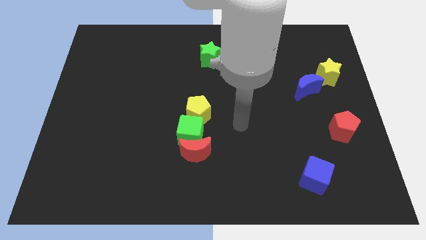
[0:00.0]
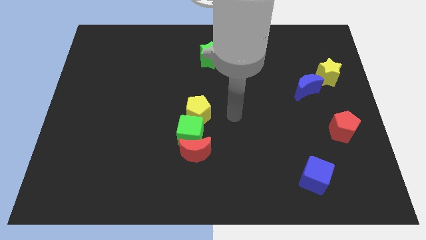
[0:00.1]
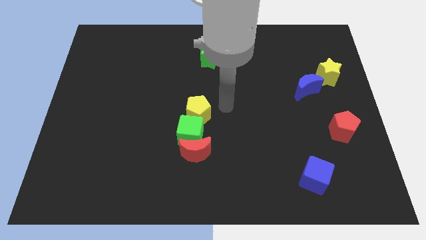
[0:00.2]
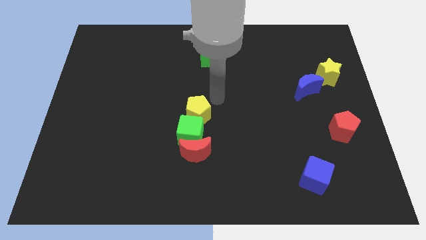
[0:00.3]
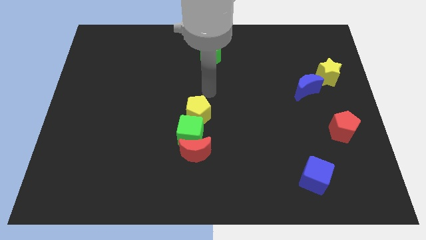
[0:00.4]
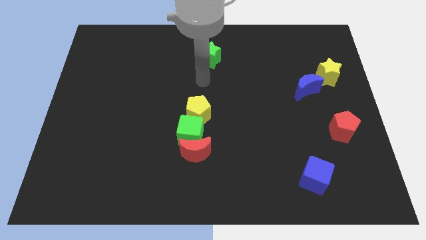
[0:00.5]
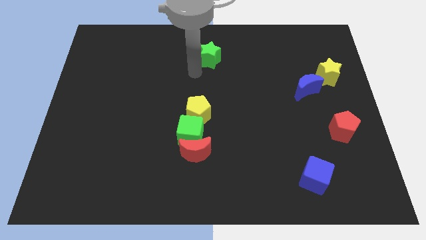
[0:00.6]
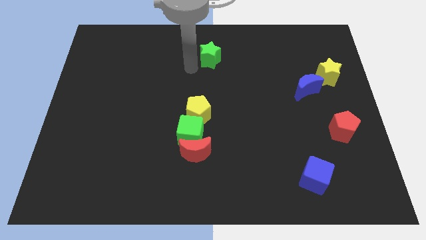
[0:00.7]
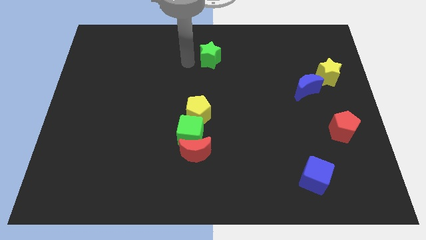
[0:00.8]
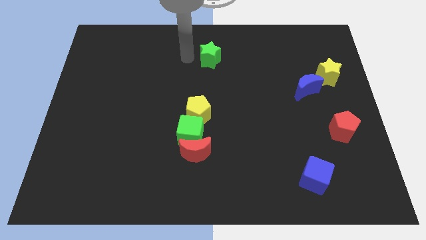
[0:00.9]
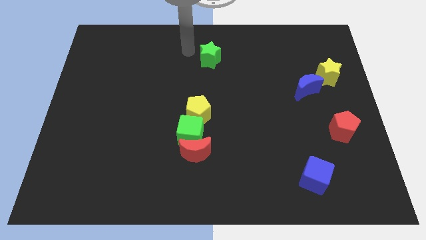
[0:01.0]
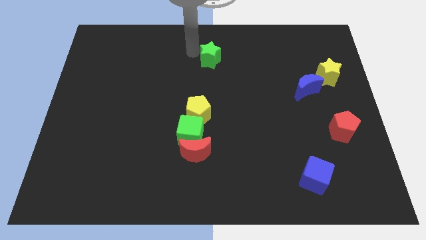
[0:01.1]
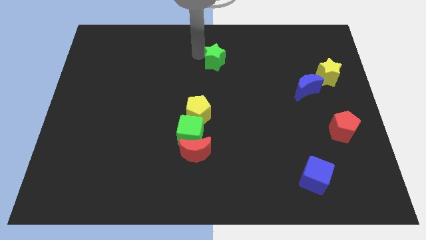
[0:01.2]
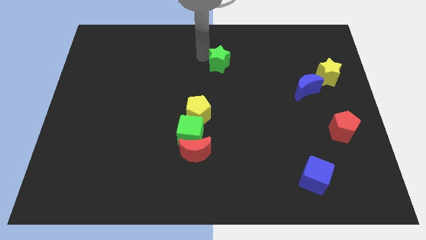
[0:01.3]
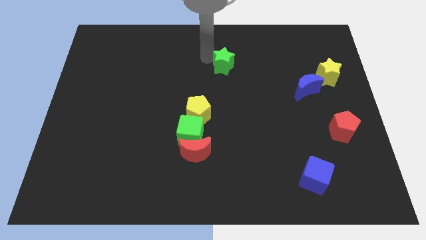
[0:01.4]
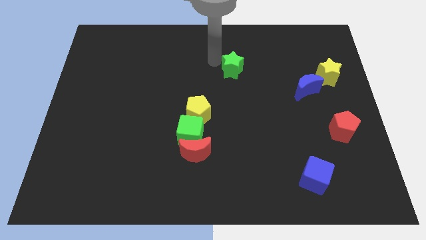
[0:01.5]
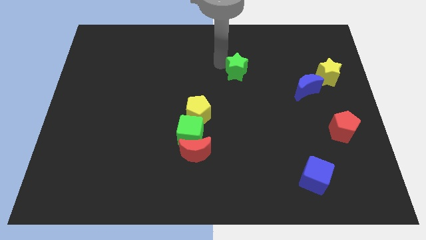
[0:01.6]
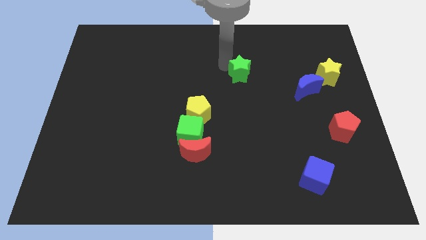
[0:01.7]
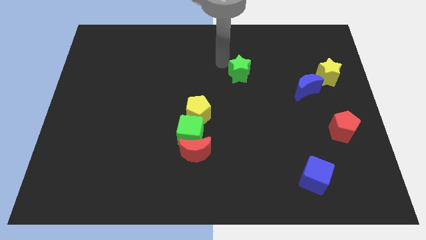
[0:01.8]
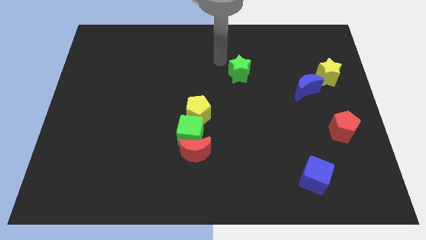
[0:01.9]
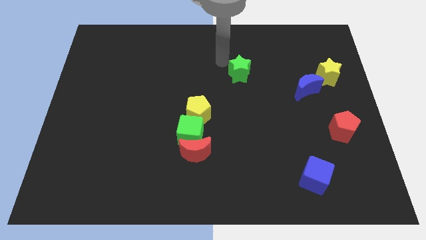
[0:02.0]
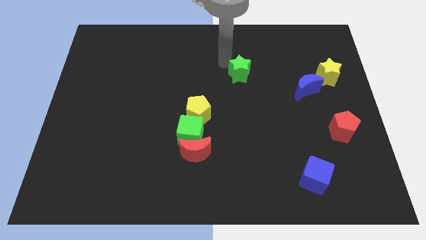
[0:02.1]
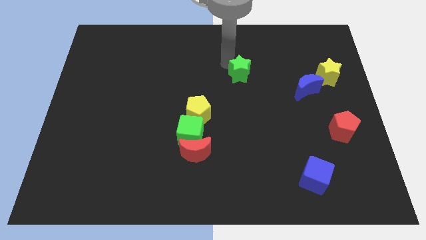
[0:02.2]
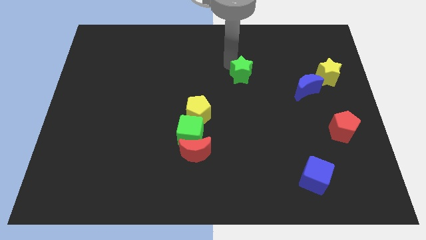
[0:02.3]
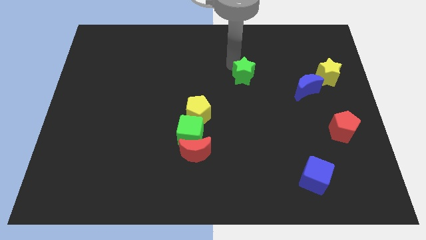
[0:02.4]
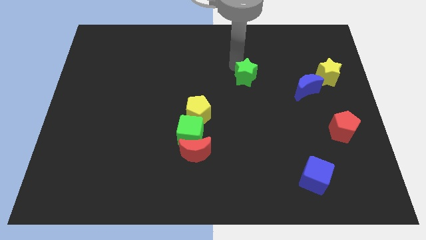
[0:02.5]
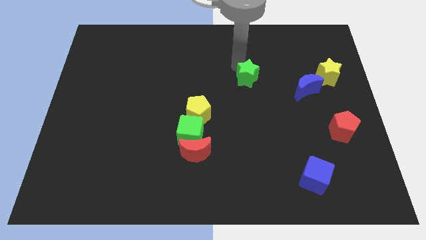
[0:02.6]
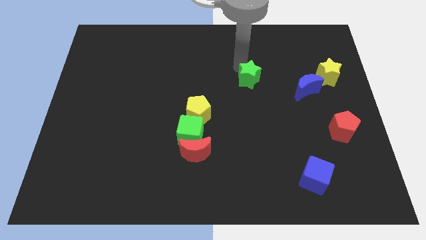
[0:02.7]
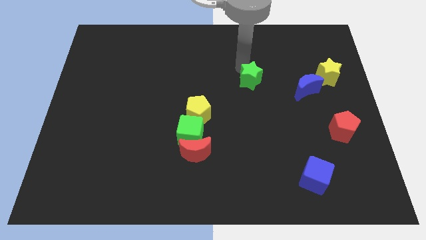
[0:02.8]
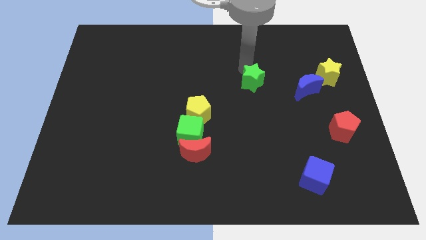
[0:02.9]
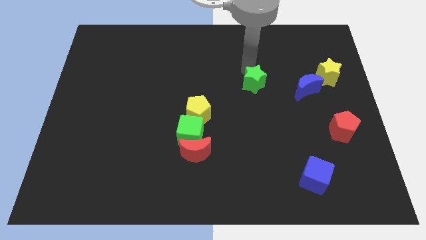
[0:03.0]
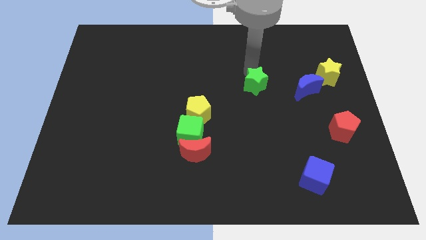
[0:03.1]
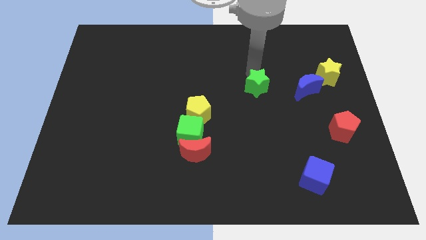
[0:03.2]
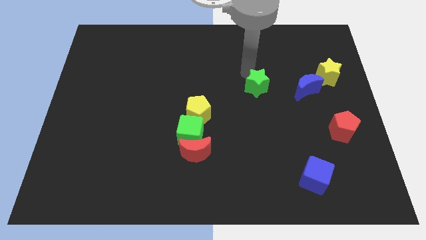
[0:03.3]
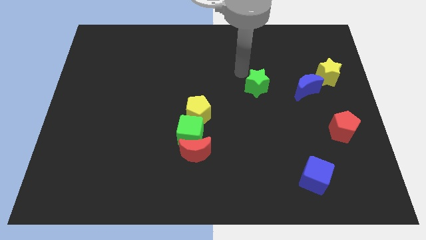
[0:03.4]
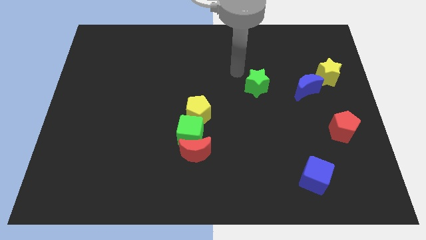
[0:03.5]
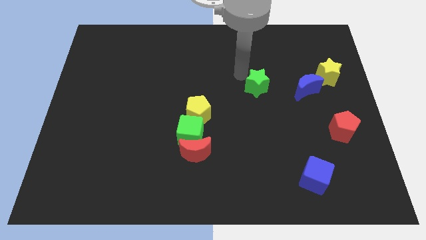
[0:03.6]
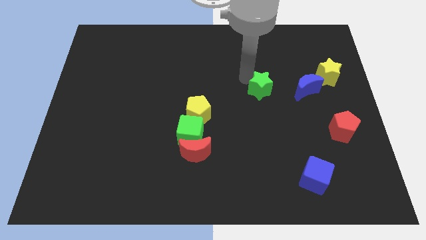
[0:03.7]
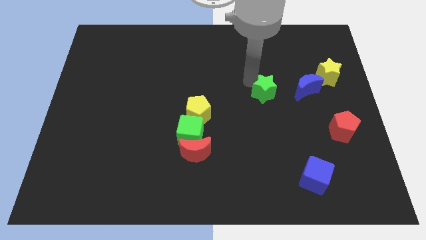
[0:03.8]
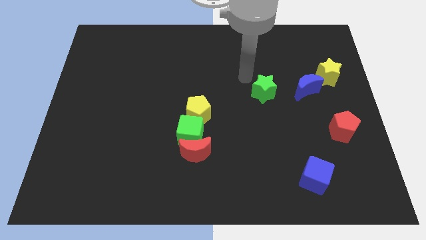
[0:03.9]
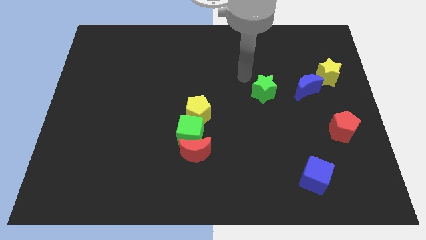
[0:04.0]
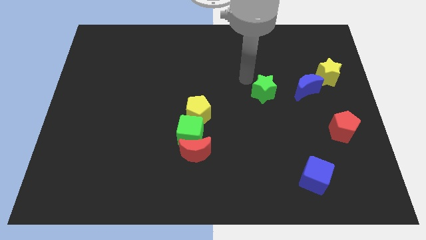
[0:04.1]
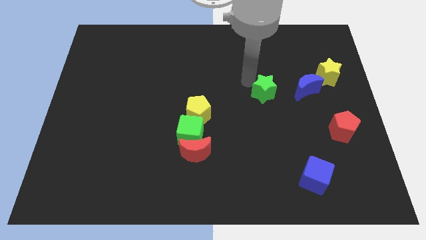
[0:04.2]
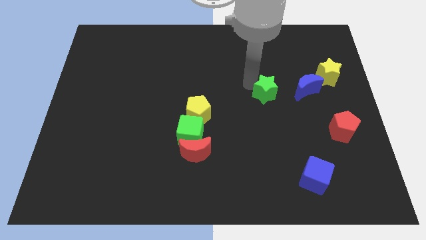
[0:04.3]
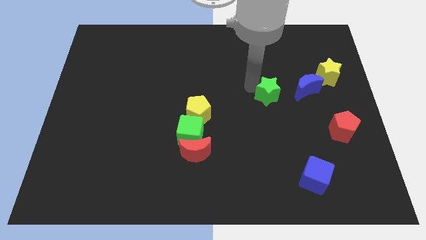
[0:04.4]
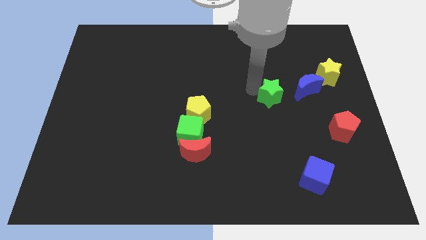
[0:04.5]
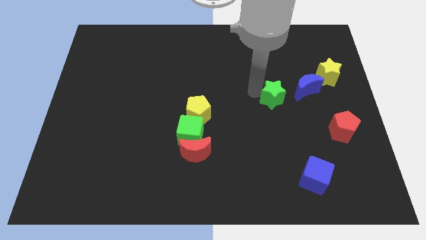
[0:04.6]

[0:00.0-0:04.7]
move the green star down and to the right

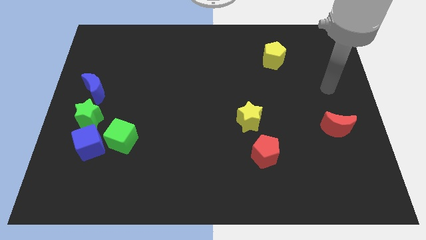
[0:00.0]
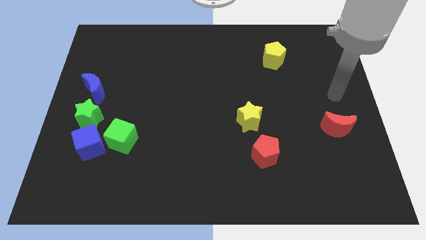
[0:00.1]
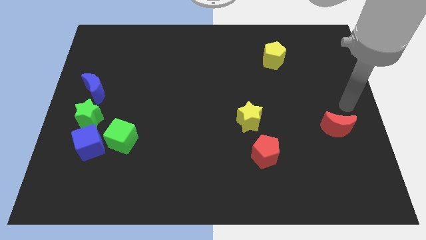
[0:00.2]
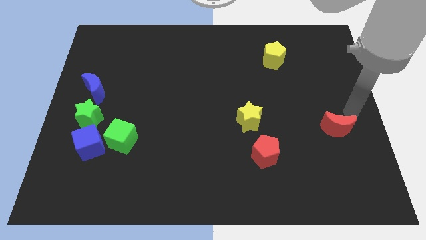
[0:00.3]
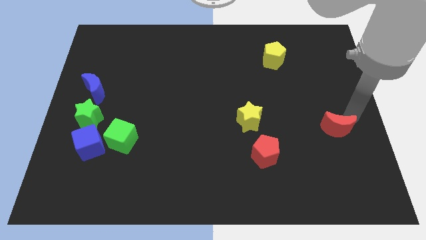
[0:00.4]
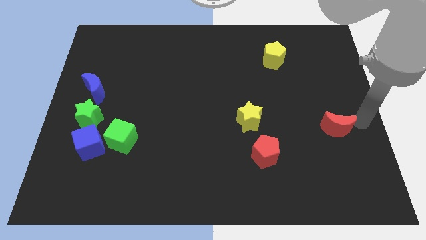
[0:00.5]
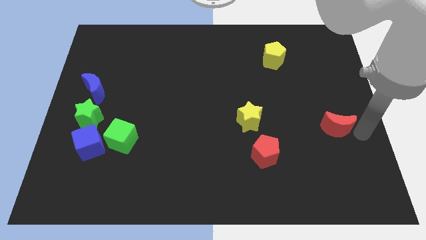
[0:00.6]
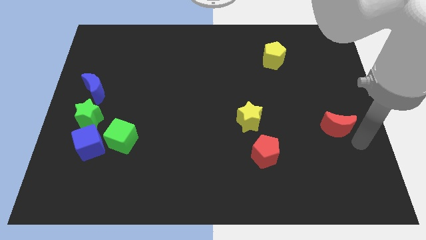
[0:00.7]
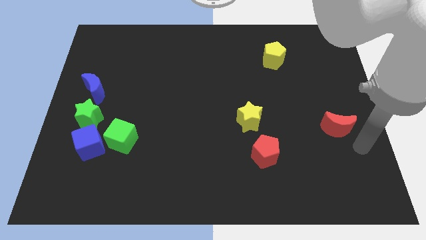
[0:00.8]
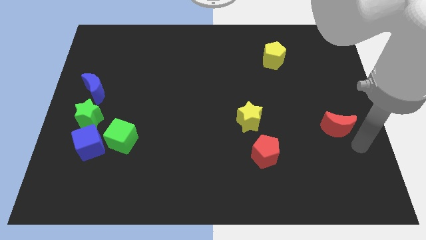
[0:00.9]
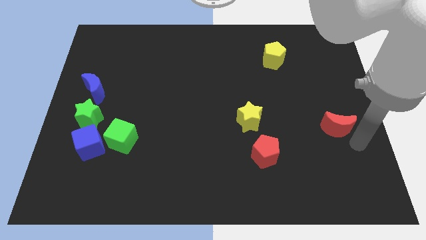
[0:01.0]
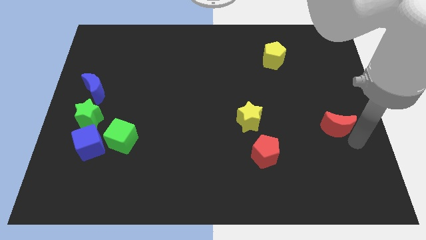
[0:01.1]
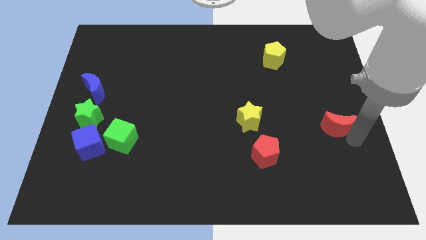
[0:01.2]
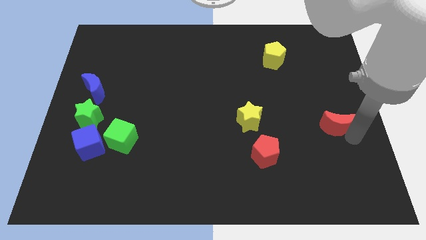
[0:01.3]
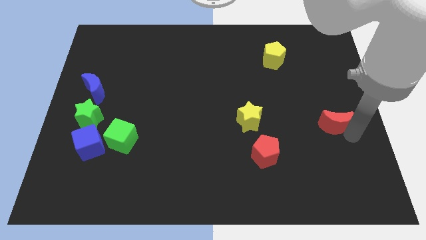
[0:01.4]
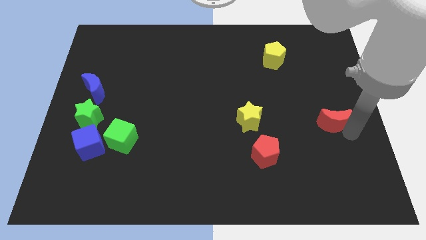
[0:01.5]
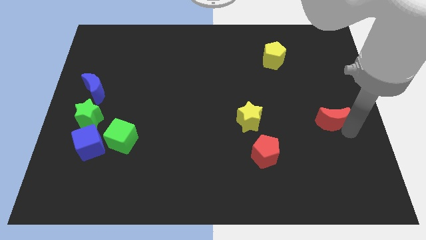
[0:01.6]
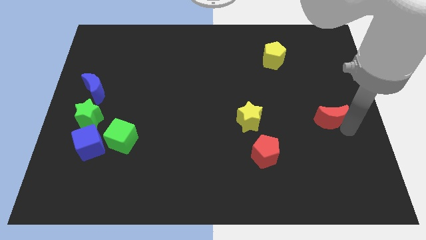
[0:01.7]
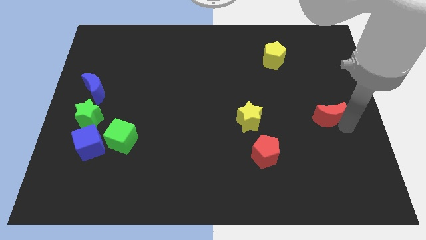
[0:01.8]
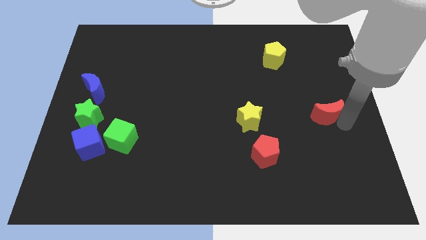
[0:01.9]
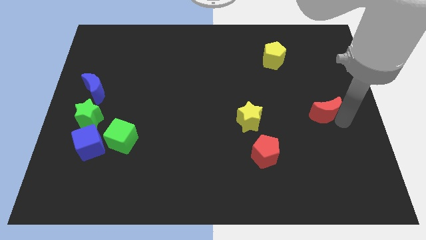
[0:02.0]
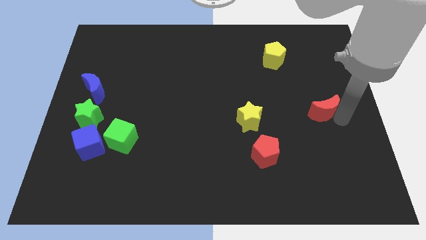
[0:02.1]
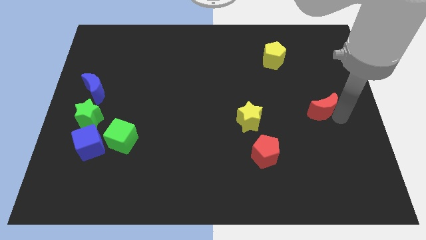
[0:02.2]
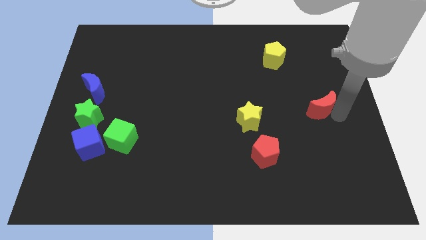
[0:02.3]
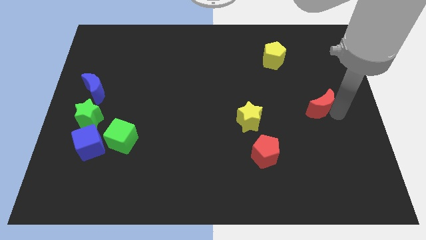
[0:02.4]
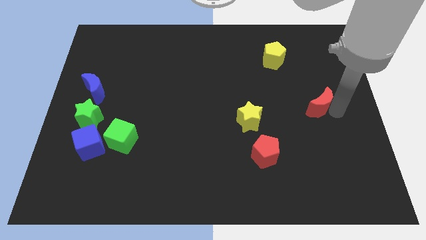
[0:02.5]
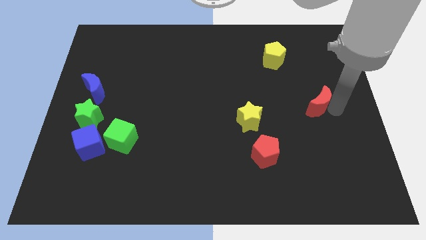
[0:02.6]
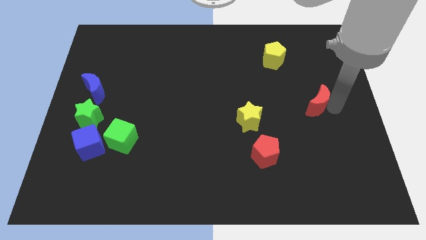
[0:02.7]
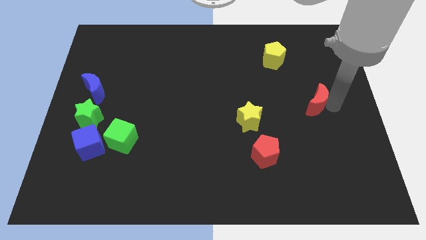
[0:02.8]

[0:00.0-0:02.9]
slightly move the red moon up and to the left

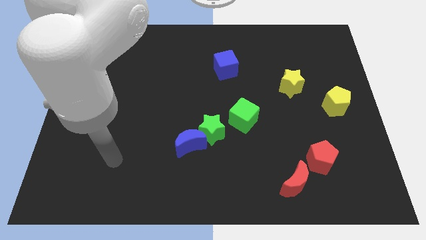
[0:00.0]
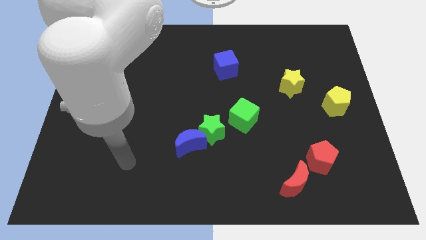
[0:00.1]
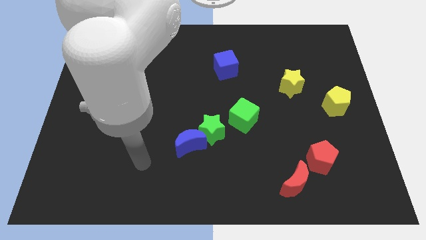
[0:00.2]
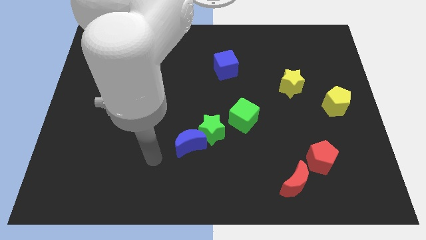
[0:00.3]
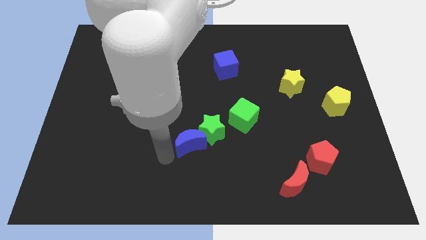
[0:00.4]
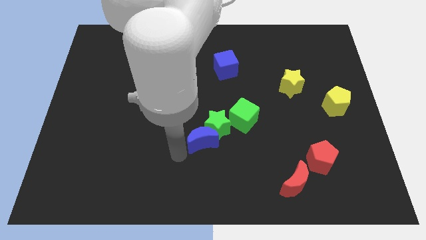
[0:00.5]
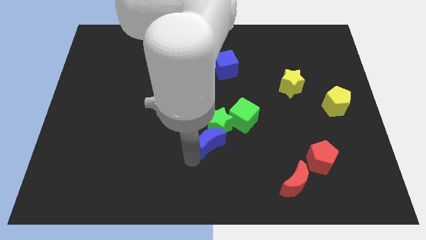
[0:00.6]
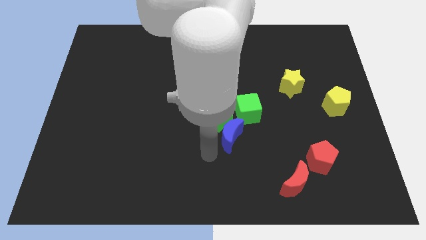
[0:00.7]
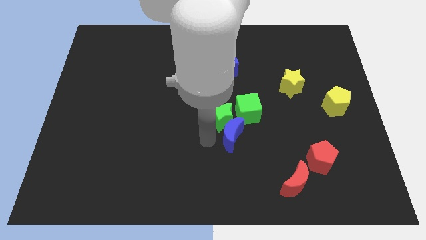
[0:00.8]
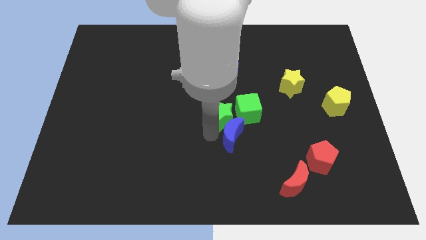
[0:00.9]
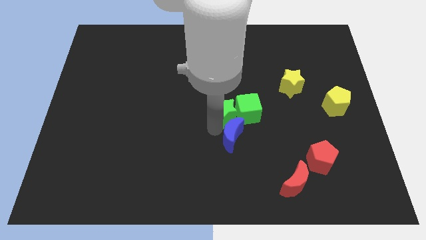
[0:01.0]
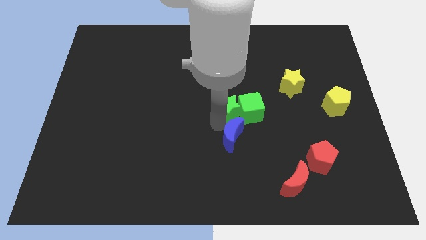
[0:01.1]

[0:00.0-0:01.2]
slide the green star upwards and then to the right somewhat
